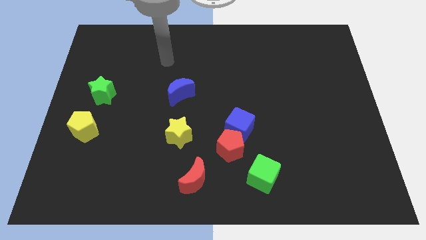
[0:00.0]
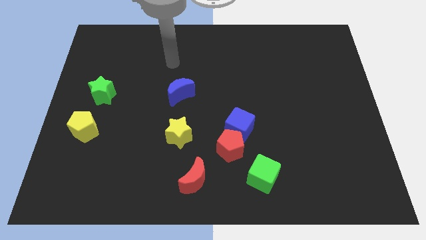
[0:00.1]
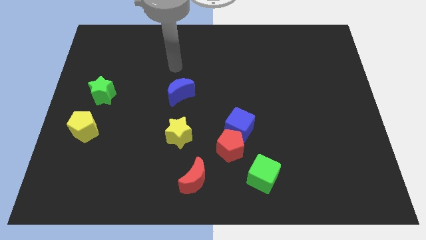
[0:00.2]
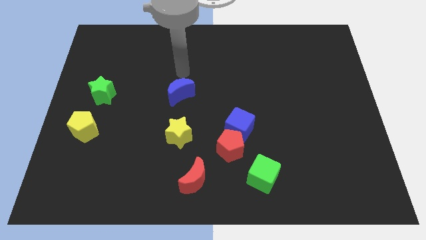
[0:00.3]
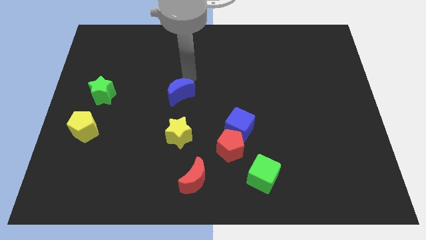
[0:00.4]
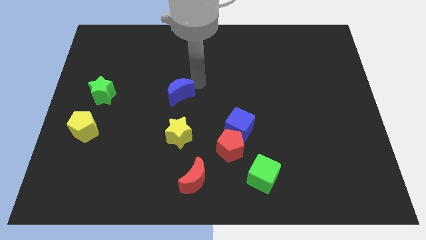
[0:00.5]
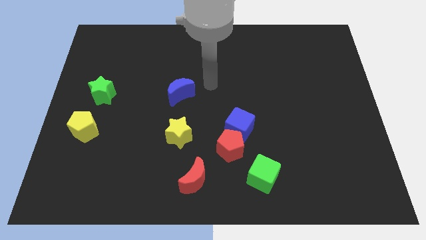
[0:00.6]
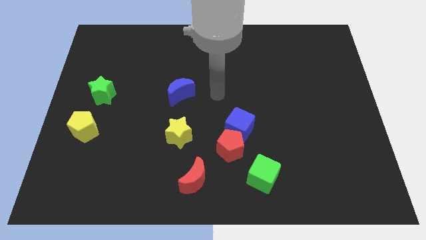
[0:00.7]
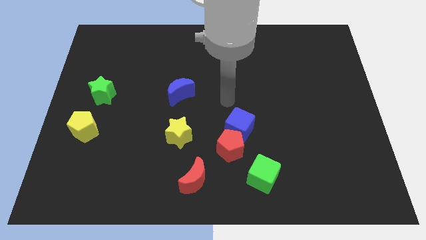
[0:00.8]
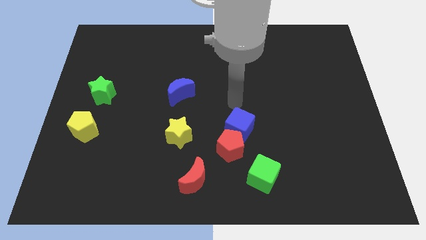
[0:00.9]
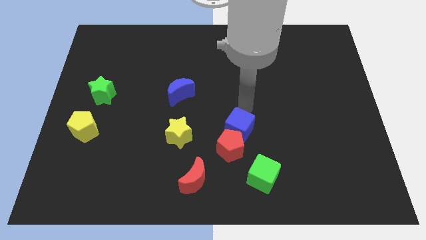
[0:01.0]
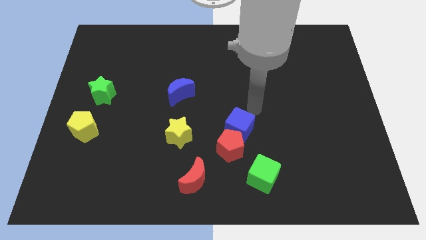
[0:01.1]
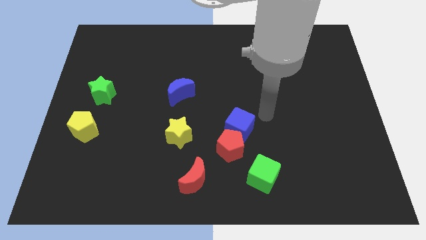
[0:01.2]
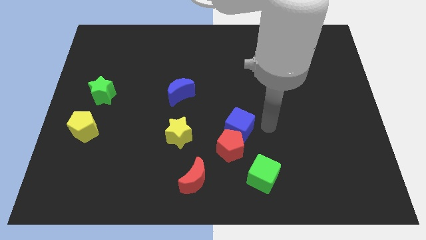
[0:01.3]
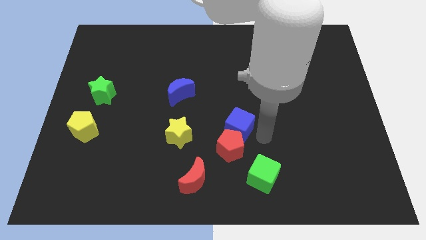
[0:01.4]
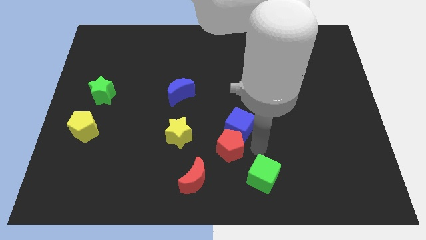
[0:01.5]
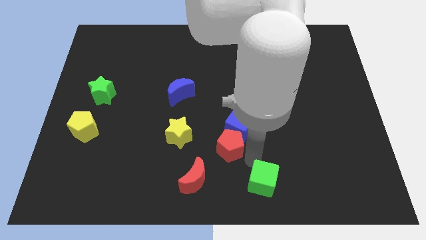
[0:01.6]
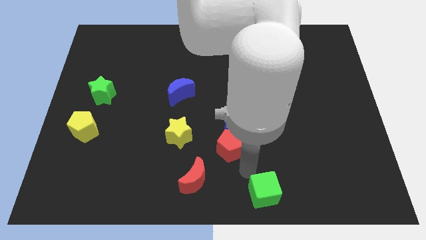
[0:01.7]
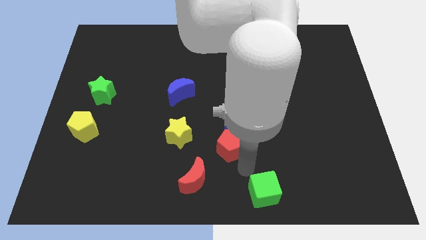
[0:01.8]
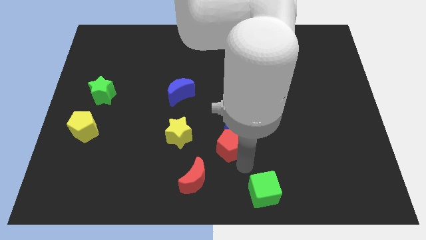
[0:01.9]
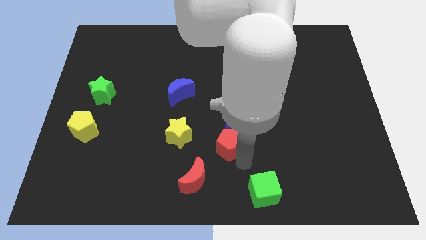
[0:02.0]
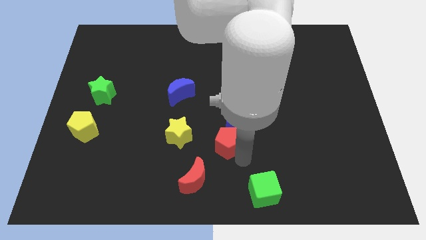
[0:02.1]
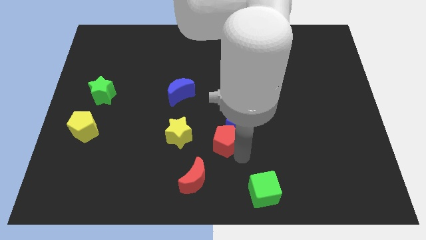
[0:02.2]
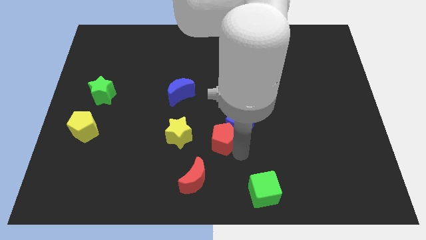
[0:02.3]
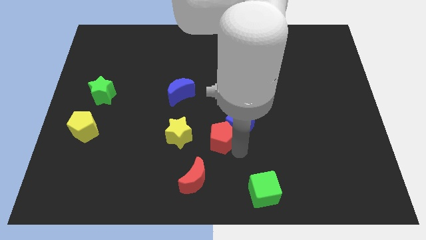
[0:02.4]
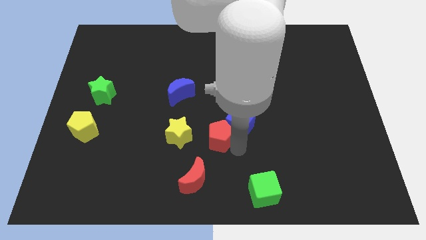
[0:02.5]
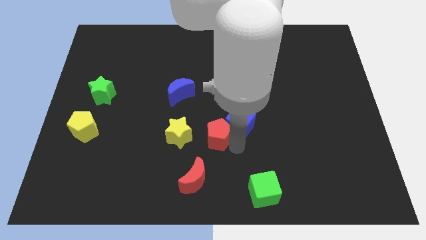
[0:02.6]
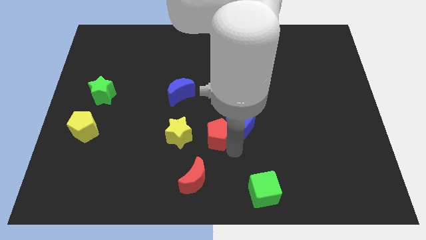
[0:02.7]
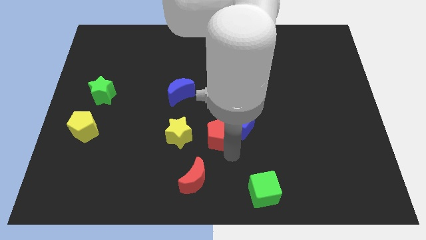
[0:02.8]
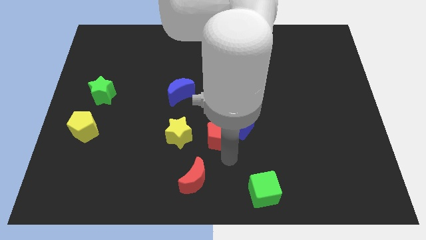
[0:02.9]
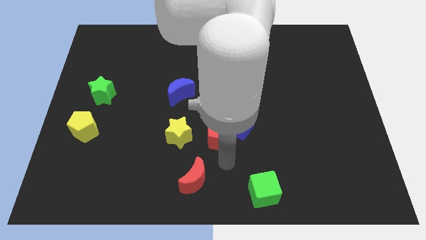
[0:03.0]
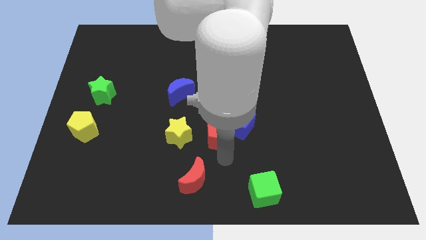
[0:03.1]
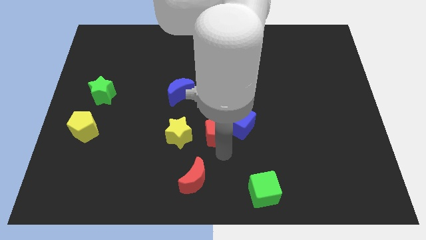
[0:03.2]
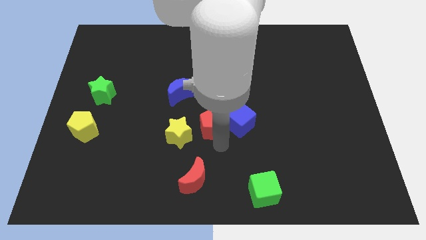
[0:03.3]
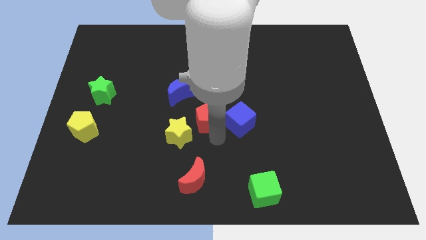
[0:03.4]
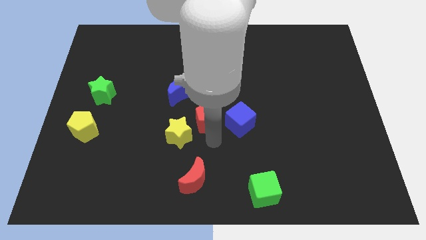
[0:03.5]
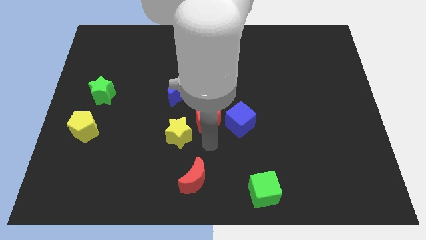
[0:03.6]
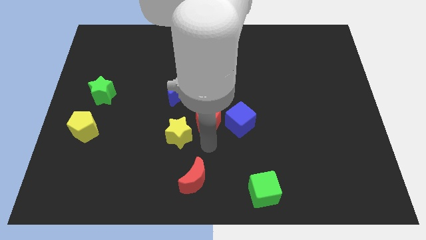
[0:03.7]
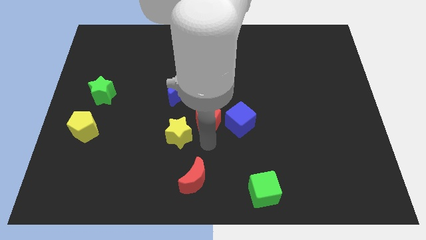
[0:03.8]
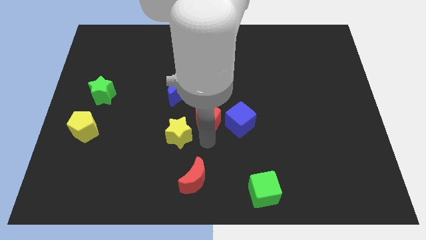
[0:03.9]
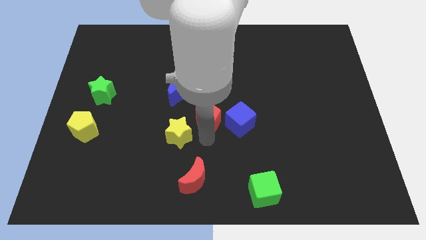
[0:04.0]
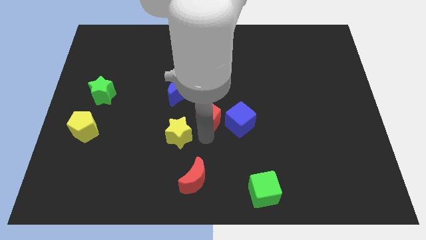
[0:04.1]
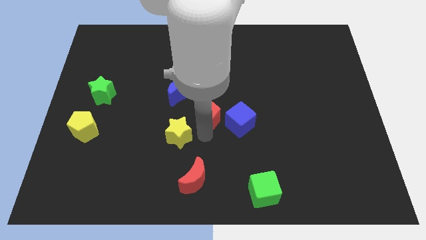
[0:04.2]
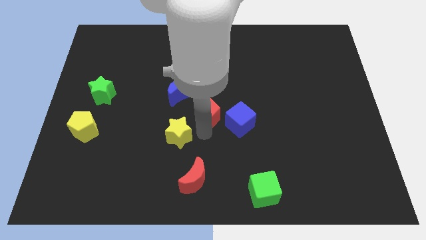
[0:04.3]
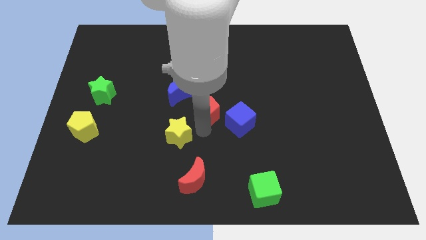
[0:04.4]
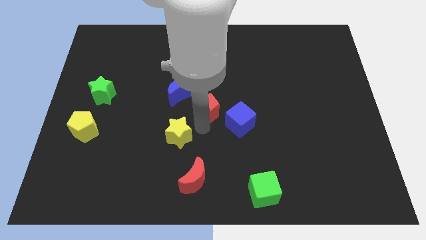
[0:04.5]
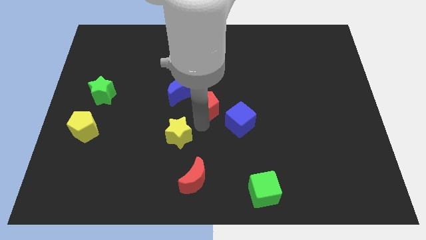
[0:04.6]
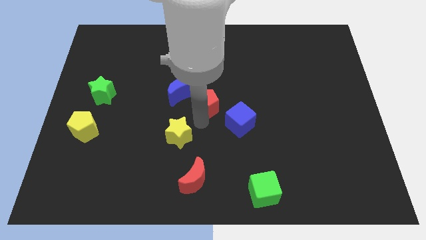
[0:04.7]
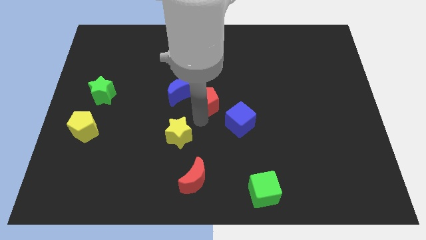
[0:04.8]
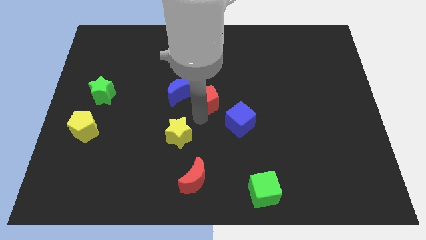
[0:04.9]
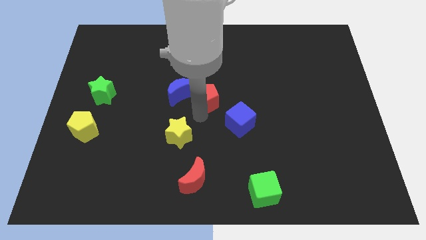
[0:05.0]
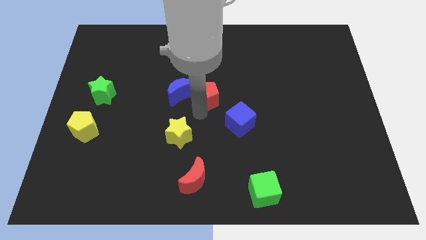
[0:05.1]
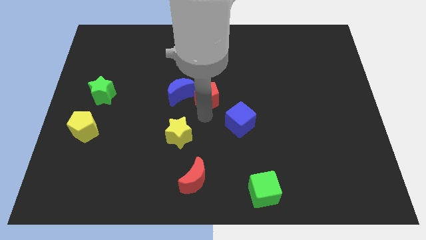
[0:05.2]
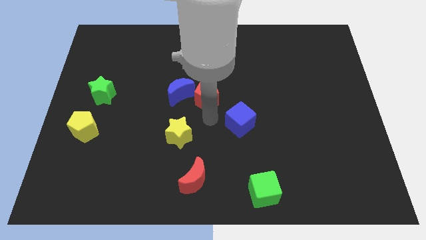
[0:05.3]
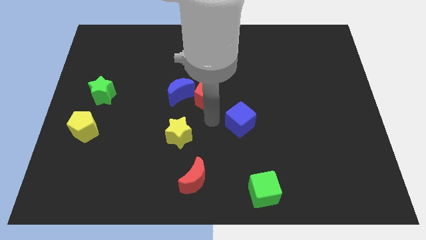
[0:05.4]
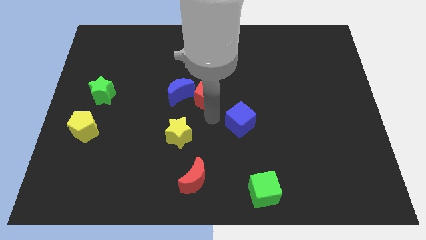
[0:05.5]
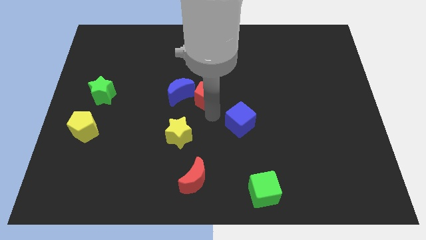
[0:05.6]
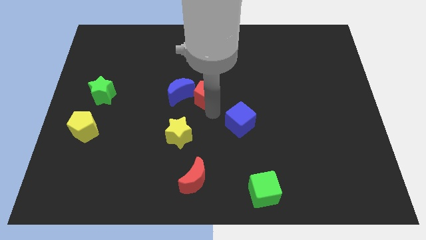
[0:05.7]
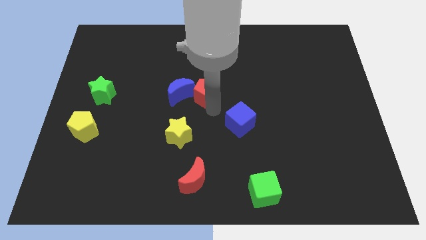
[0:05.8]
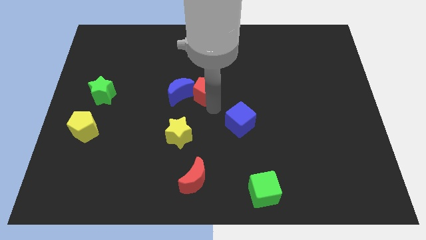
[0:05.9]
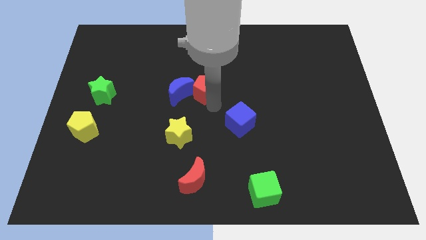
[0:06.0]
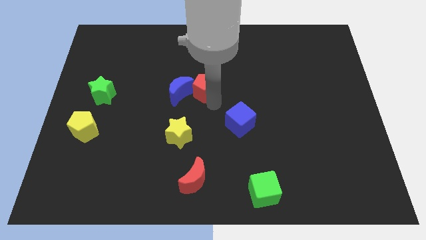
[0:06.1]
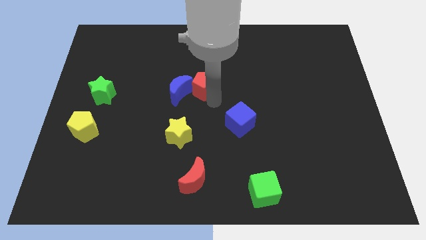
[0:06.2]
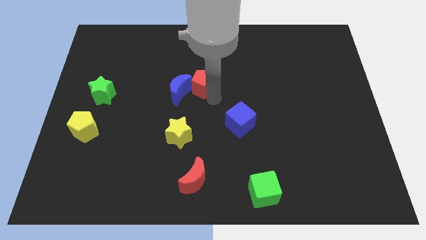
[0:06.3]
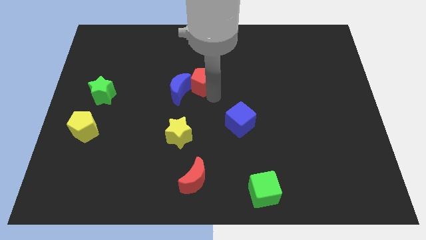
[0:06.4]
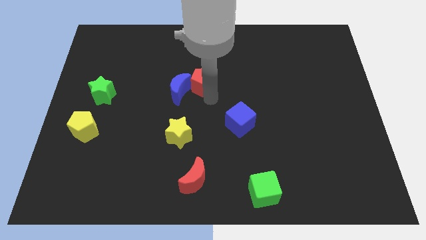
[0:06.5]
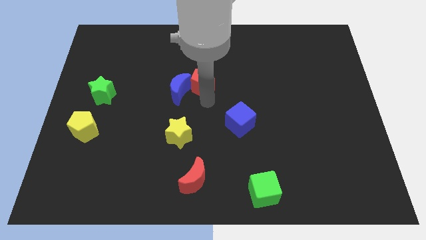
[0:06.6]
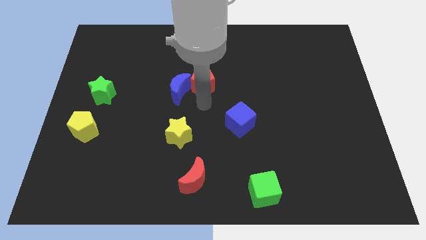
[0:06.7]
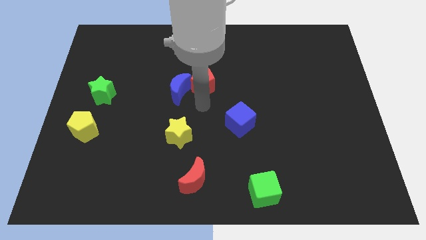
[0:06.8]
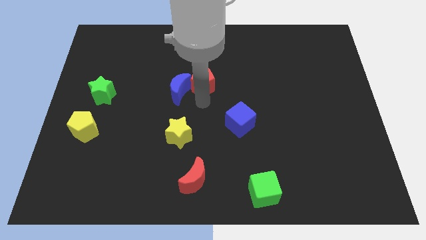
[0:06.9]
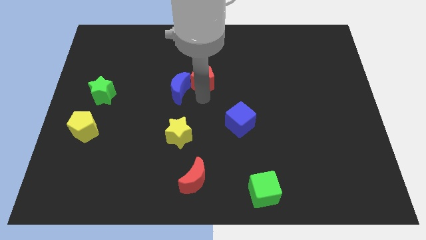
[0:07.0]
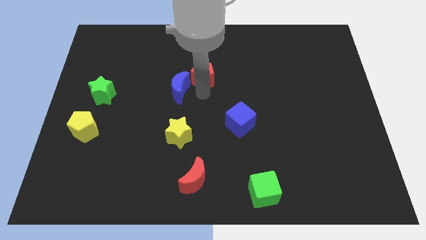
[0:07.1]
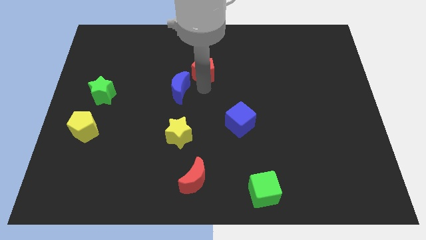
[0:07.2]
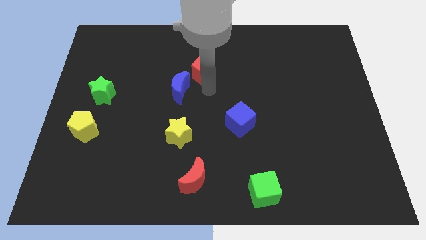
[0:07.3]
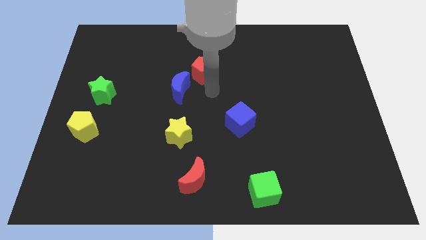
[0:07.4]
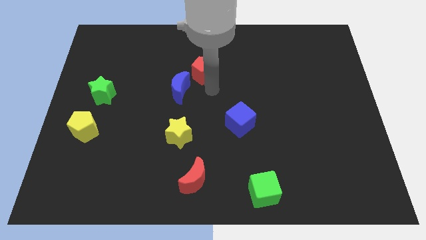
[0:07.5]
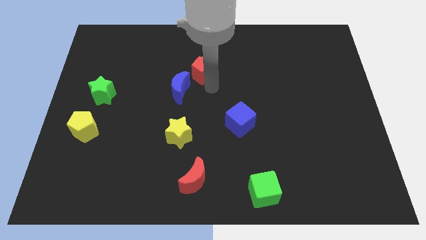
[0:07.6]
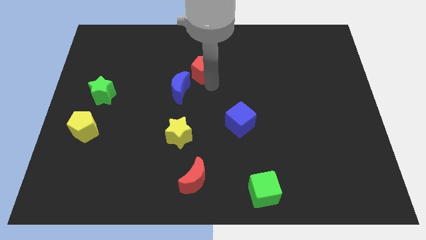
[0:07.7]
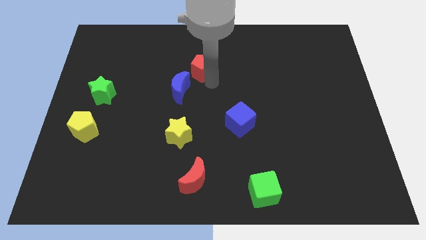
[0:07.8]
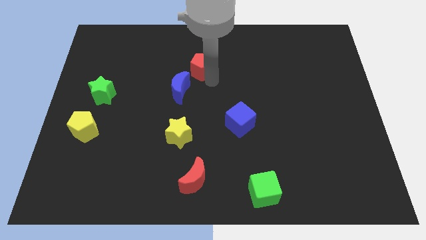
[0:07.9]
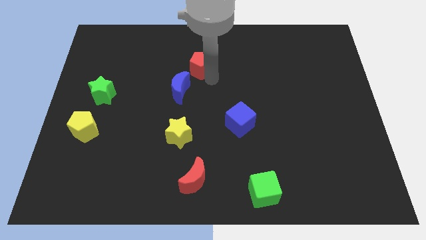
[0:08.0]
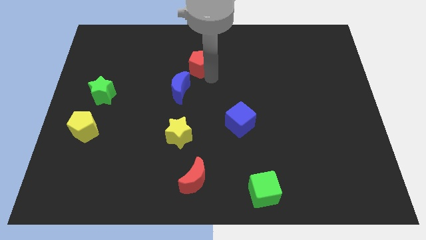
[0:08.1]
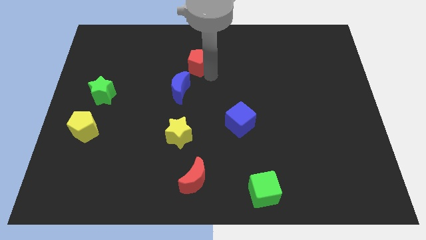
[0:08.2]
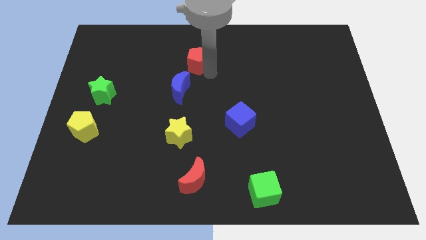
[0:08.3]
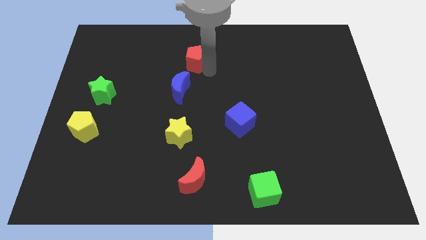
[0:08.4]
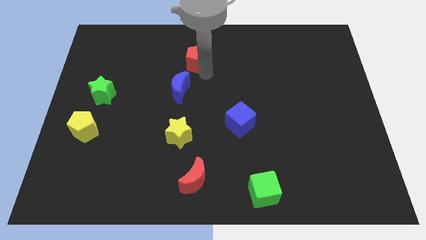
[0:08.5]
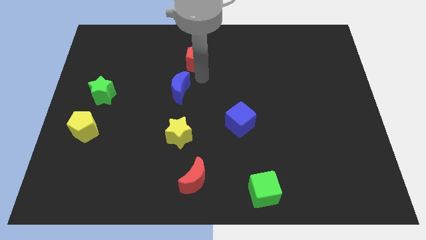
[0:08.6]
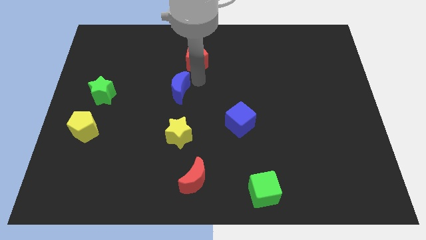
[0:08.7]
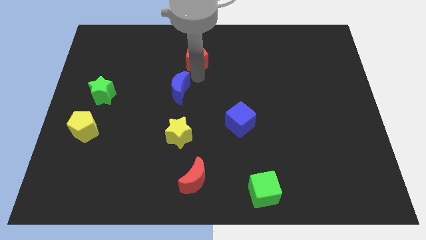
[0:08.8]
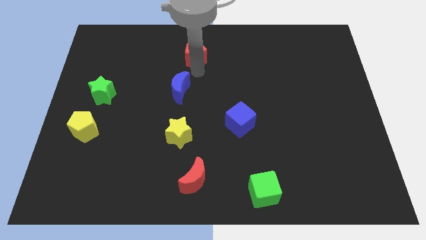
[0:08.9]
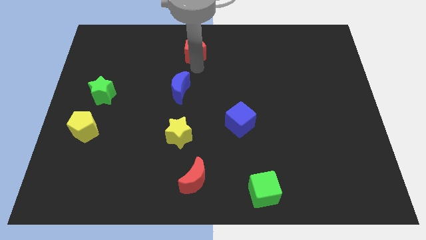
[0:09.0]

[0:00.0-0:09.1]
slide the red pentagon to the towards your base
